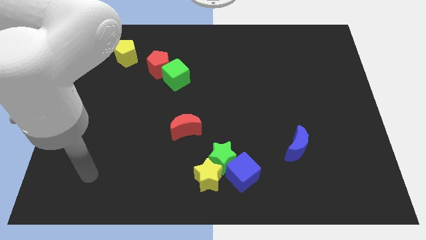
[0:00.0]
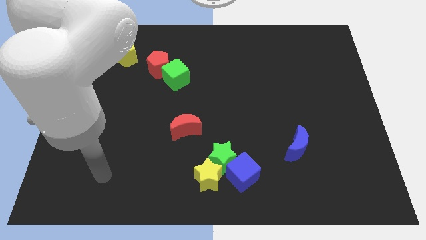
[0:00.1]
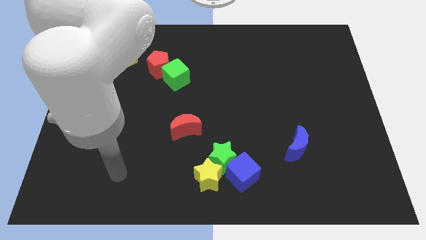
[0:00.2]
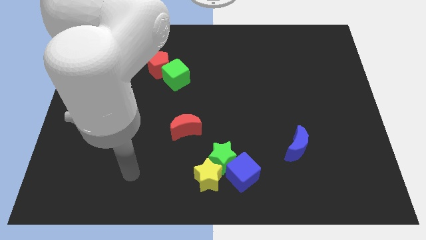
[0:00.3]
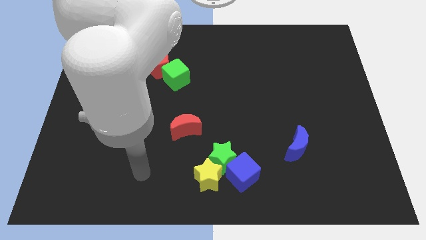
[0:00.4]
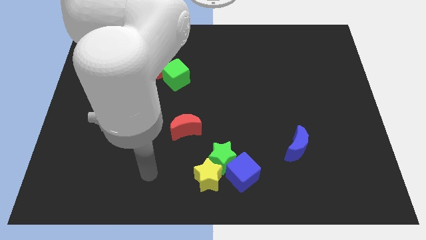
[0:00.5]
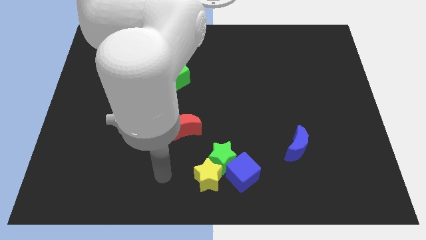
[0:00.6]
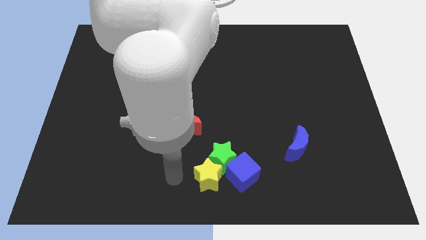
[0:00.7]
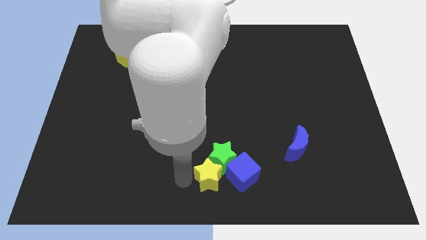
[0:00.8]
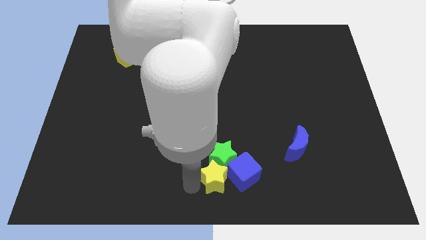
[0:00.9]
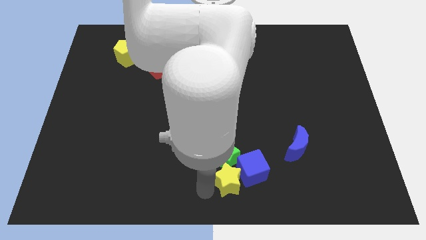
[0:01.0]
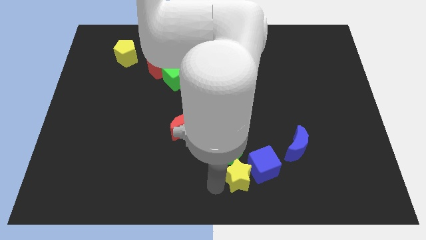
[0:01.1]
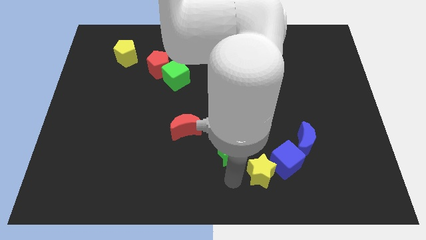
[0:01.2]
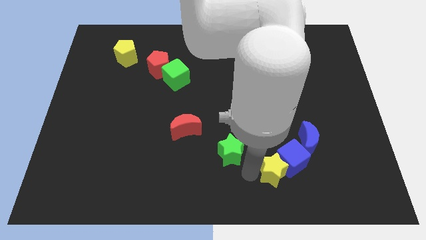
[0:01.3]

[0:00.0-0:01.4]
separate the green star from the yellow star and blue cube

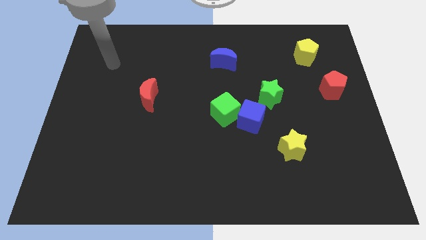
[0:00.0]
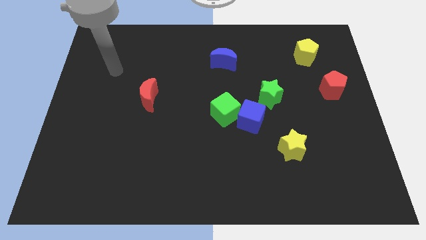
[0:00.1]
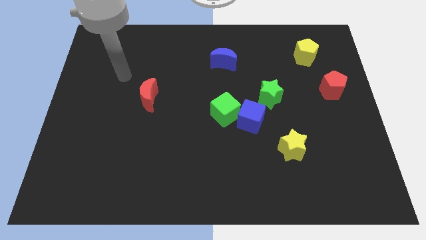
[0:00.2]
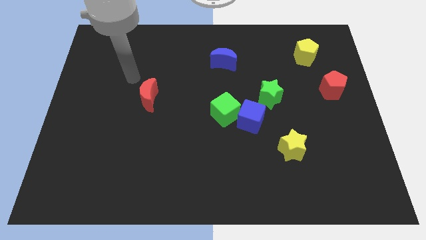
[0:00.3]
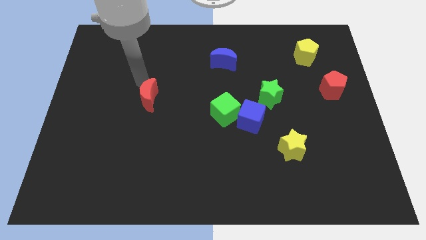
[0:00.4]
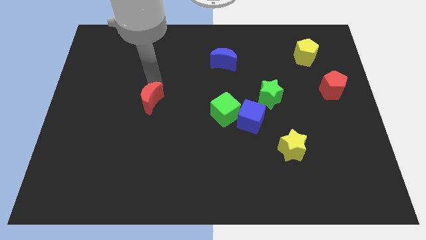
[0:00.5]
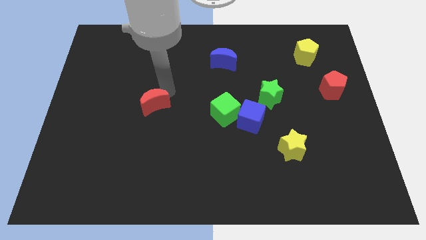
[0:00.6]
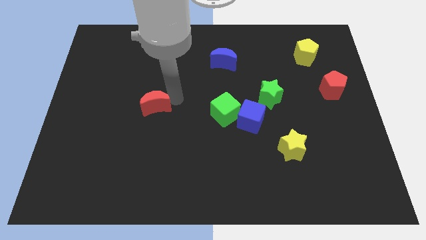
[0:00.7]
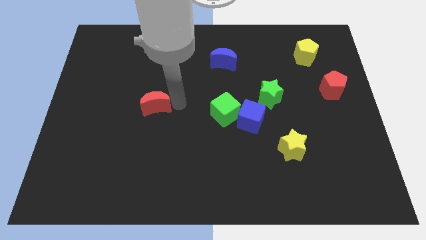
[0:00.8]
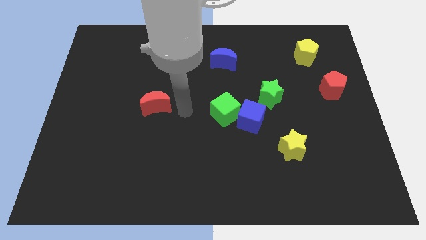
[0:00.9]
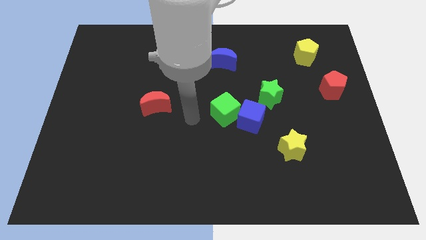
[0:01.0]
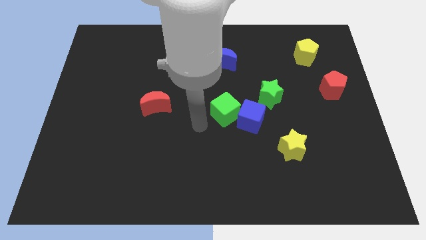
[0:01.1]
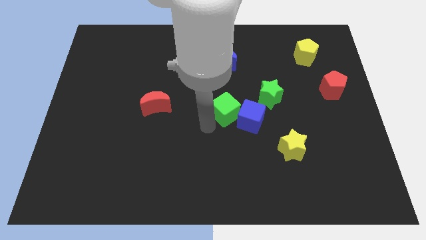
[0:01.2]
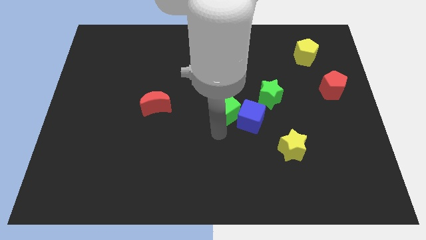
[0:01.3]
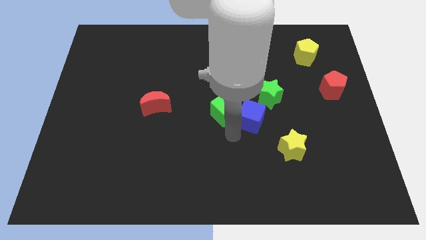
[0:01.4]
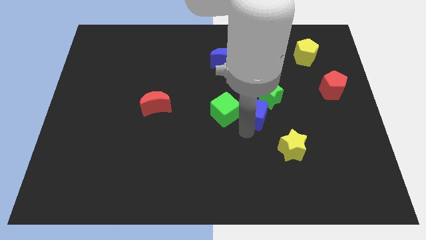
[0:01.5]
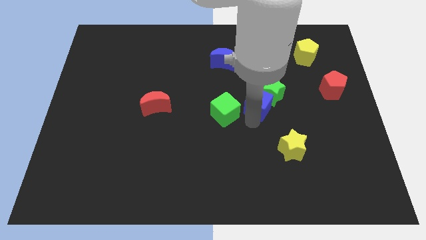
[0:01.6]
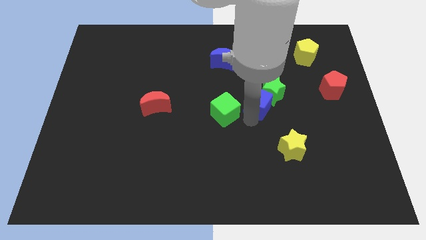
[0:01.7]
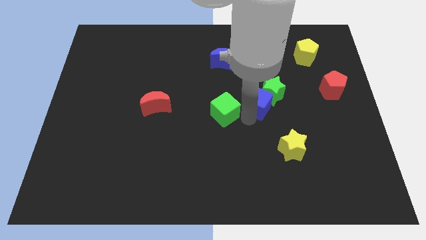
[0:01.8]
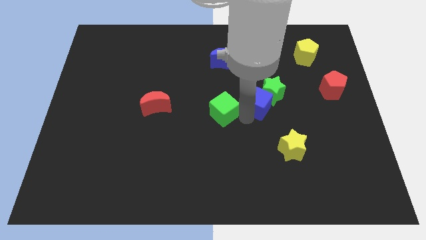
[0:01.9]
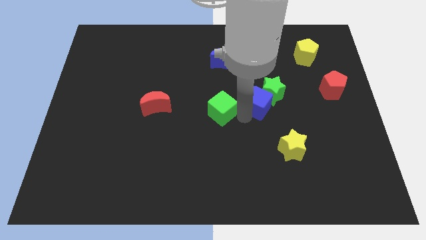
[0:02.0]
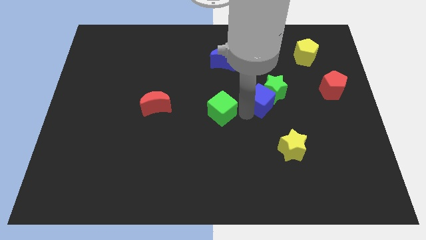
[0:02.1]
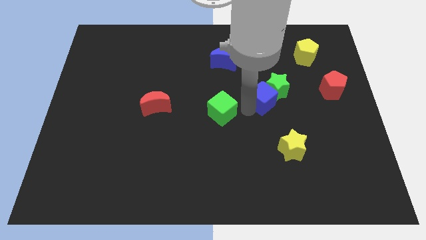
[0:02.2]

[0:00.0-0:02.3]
separate the green cube from the blue cube

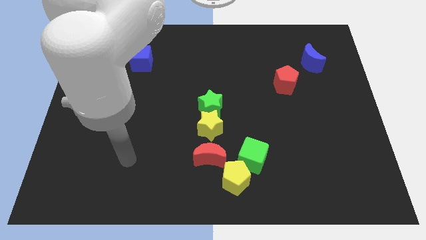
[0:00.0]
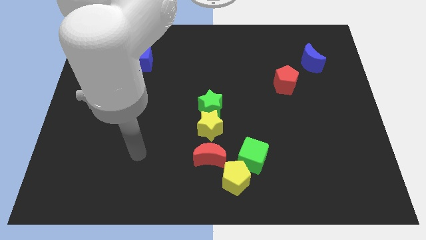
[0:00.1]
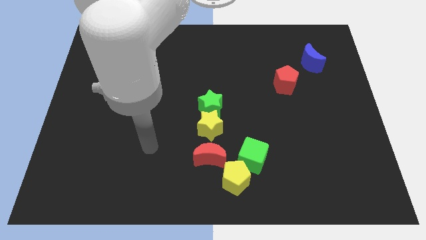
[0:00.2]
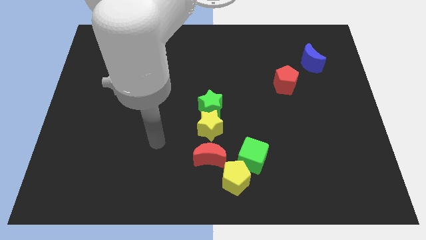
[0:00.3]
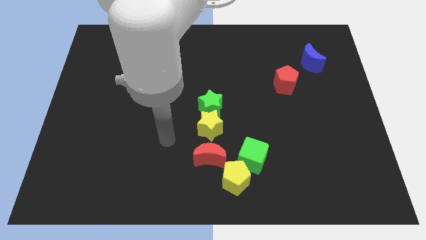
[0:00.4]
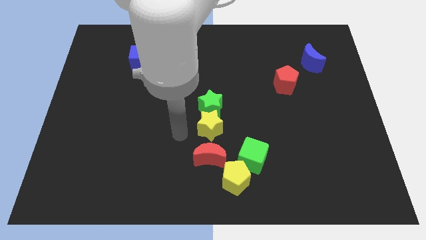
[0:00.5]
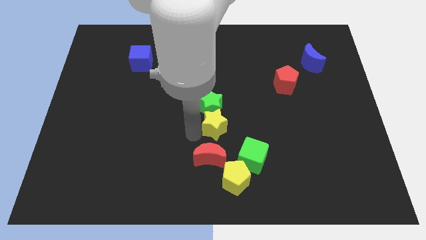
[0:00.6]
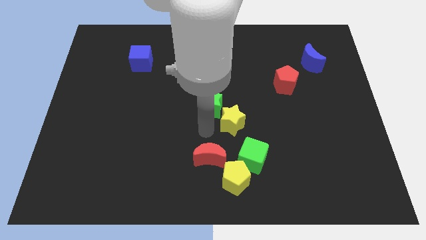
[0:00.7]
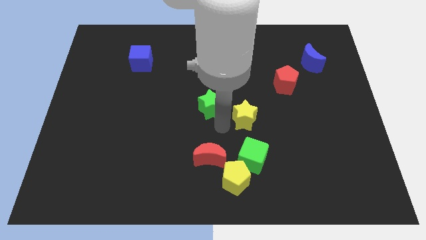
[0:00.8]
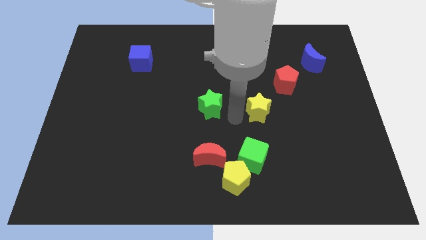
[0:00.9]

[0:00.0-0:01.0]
move the green star away from the yellow star

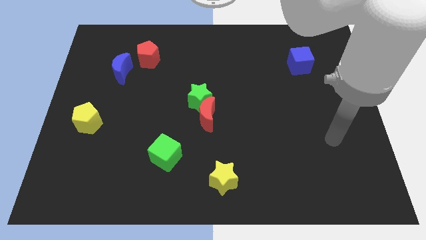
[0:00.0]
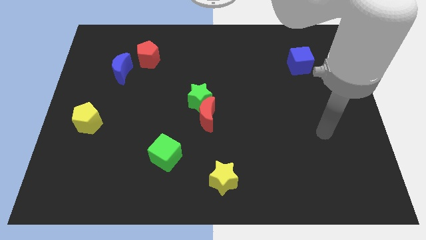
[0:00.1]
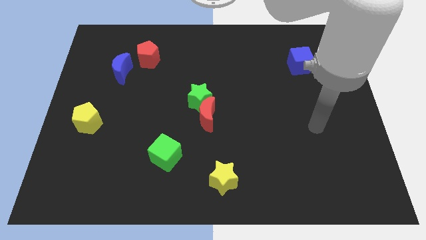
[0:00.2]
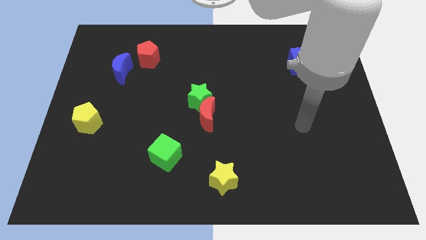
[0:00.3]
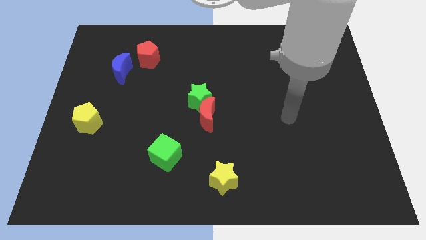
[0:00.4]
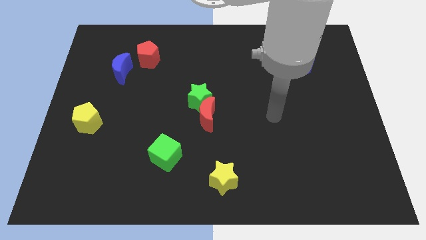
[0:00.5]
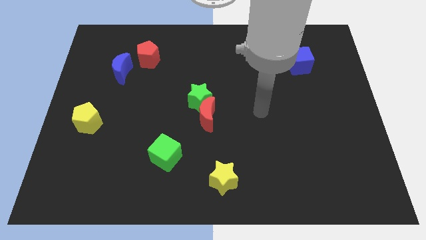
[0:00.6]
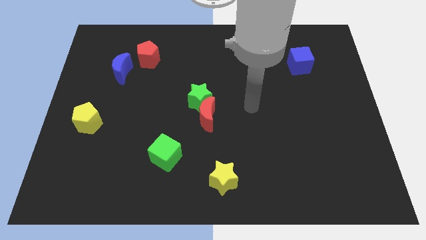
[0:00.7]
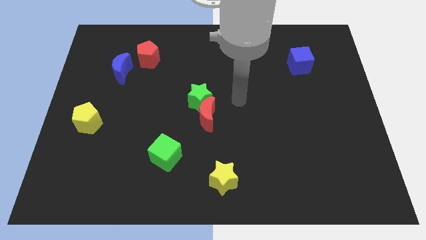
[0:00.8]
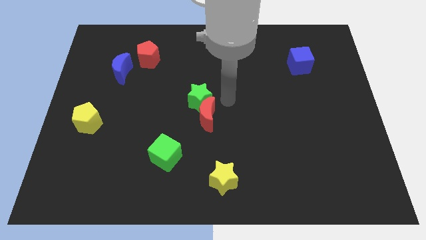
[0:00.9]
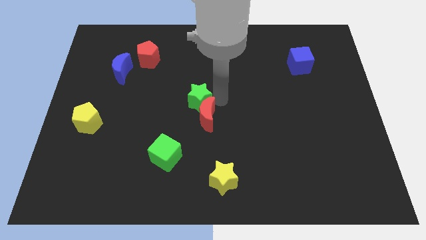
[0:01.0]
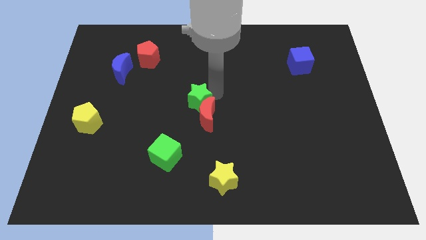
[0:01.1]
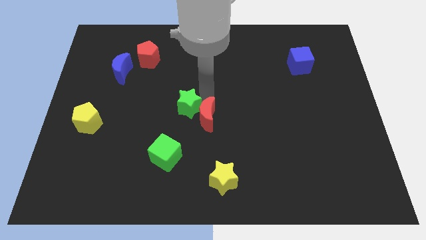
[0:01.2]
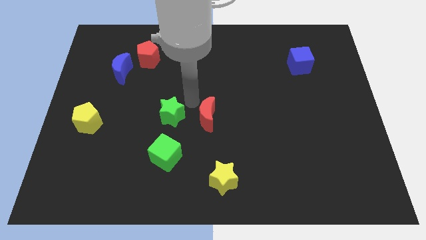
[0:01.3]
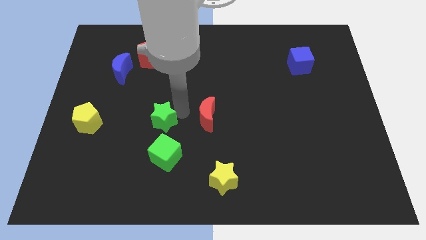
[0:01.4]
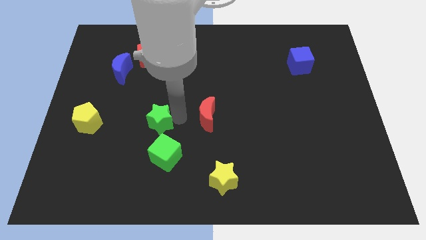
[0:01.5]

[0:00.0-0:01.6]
move the red moon away from the green star

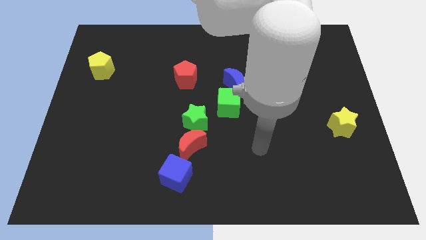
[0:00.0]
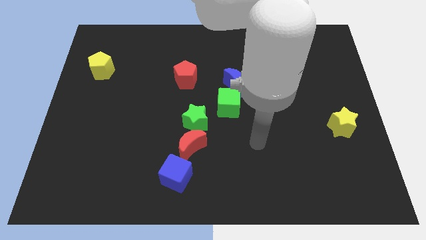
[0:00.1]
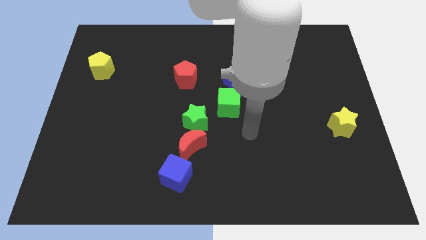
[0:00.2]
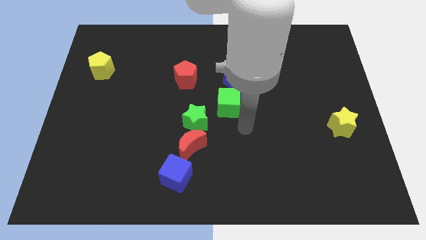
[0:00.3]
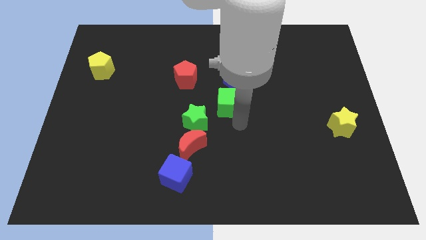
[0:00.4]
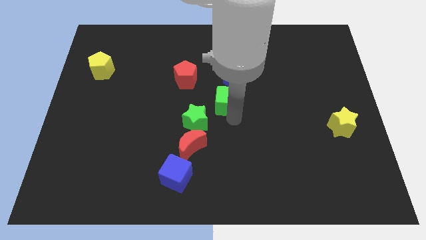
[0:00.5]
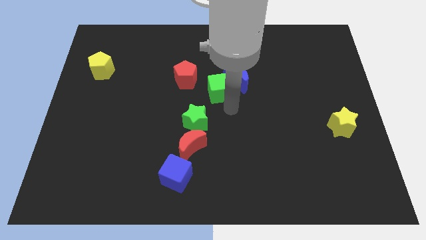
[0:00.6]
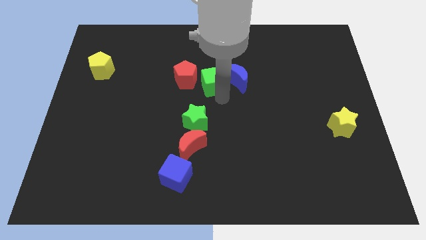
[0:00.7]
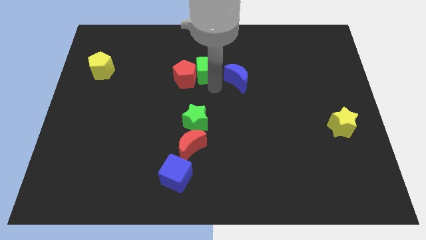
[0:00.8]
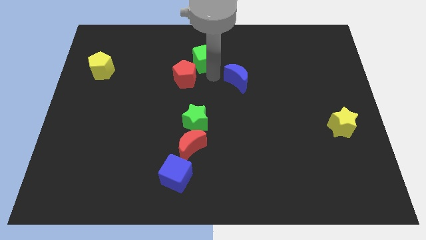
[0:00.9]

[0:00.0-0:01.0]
separate the blue moon from the green cube

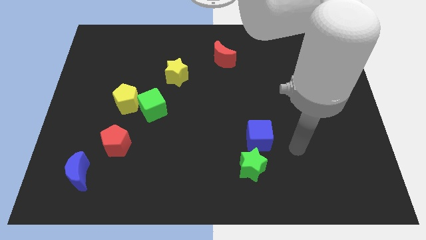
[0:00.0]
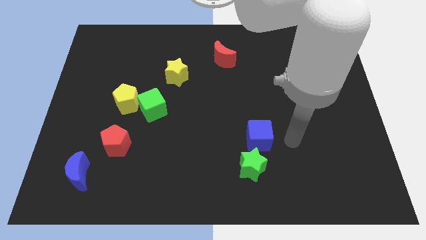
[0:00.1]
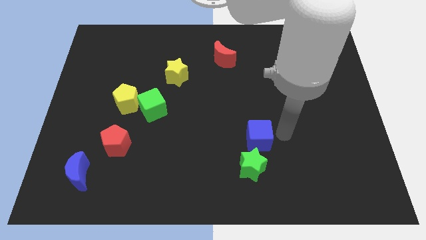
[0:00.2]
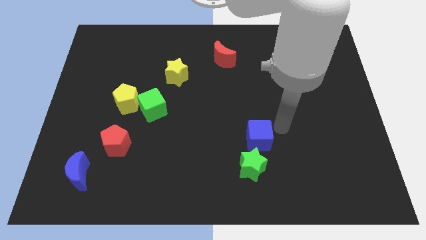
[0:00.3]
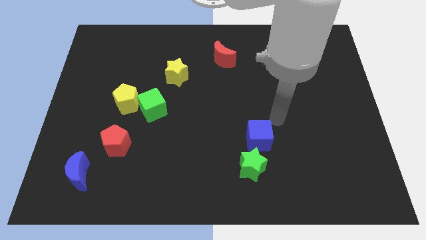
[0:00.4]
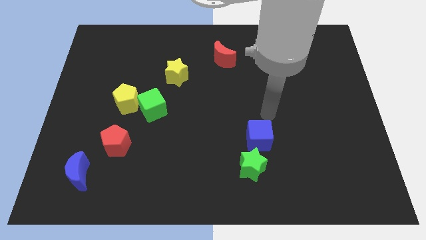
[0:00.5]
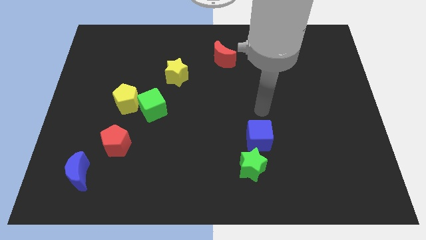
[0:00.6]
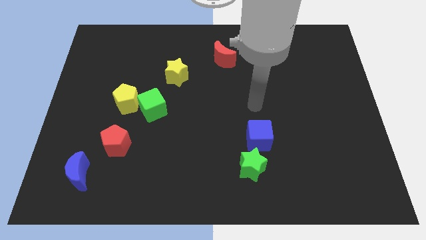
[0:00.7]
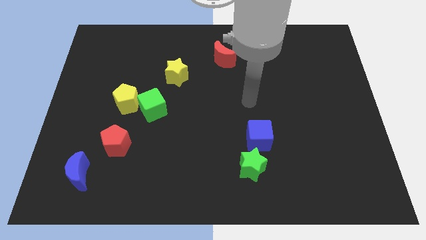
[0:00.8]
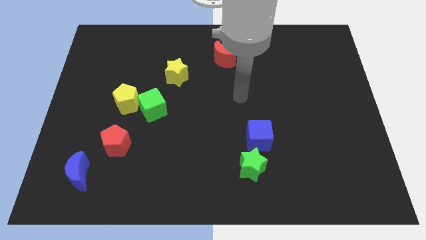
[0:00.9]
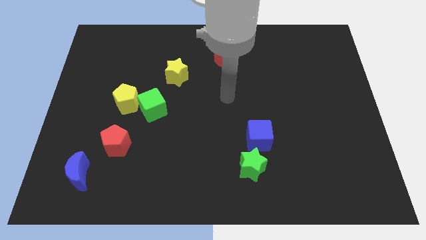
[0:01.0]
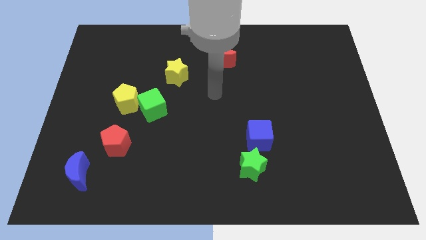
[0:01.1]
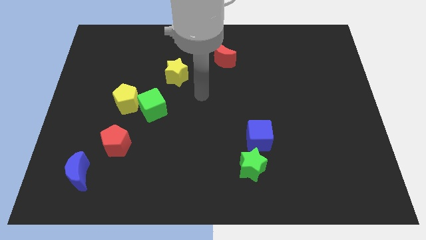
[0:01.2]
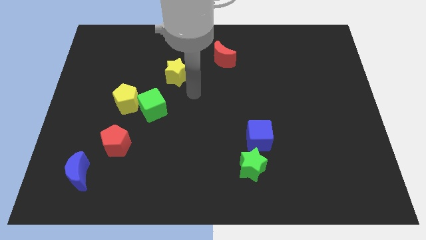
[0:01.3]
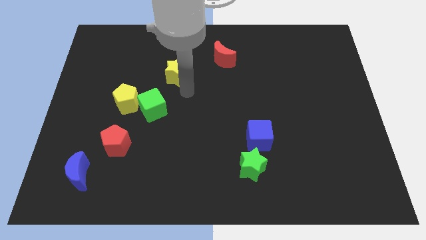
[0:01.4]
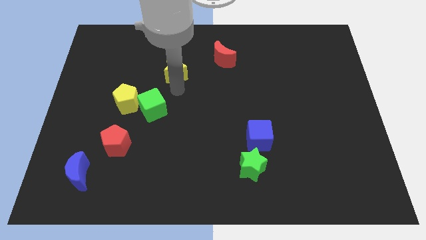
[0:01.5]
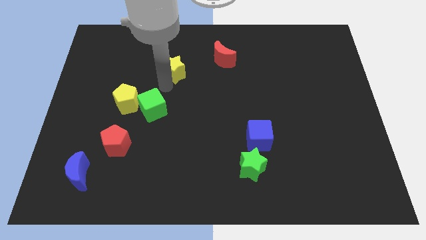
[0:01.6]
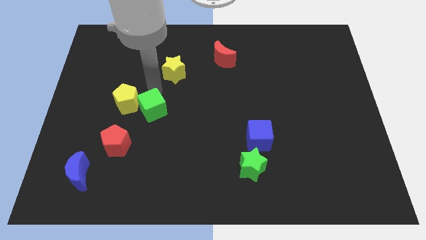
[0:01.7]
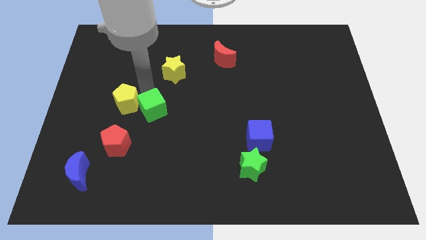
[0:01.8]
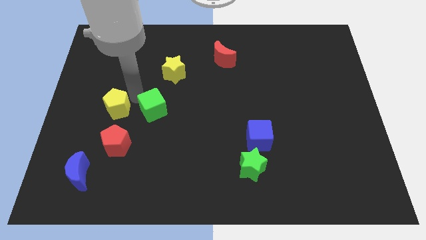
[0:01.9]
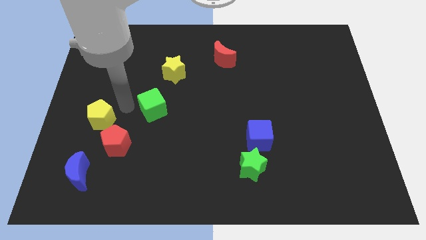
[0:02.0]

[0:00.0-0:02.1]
move the green cube away from the yellow pentagon
